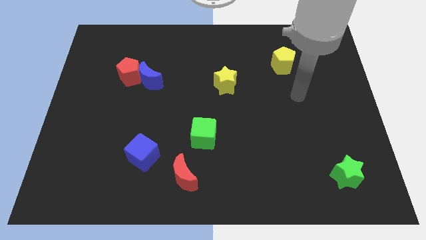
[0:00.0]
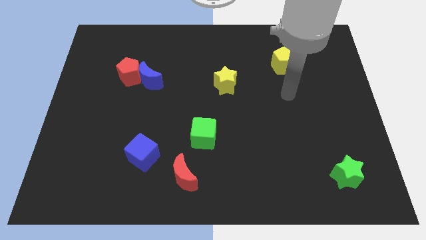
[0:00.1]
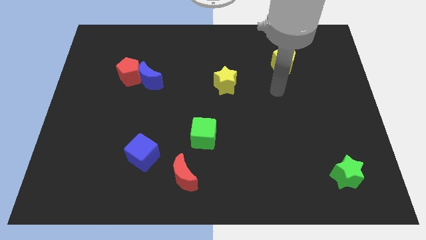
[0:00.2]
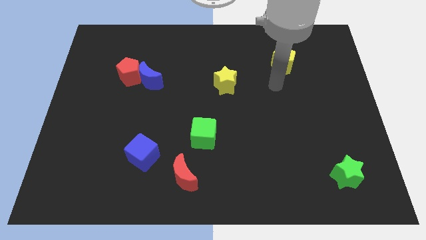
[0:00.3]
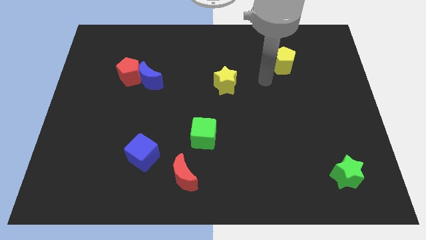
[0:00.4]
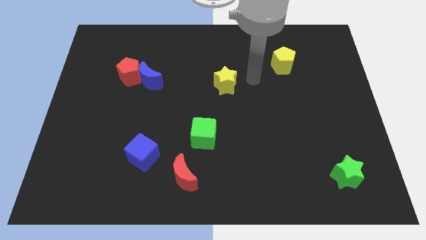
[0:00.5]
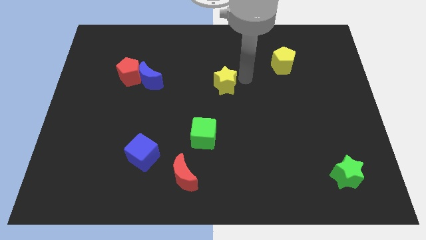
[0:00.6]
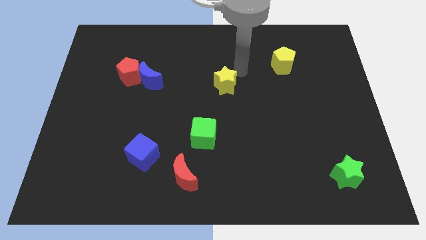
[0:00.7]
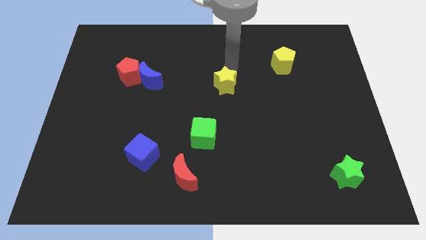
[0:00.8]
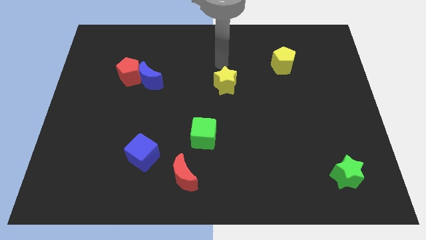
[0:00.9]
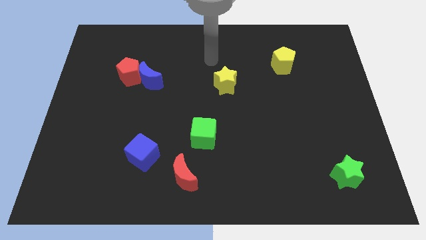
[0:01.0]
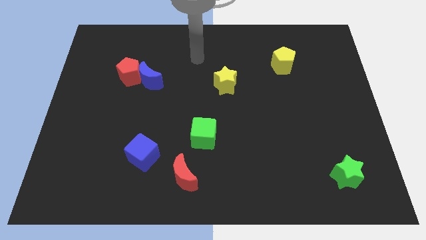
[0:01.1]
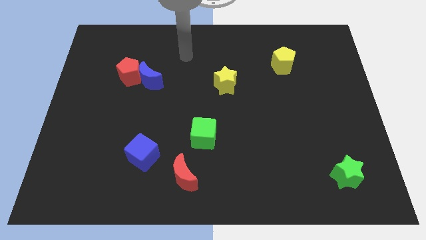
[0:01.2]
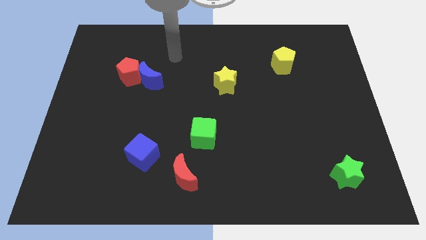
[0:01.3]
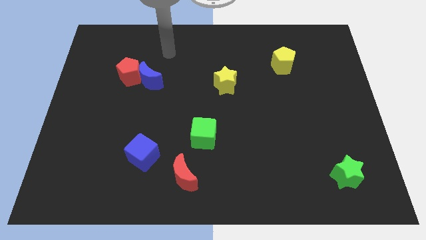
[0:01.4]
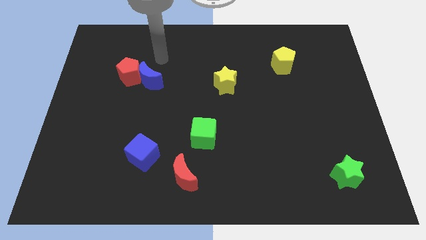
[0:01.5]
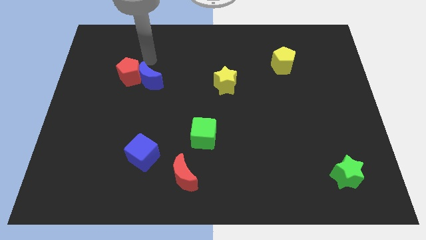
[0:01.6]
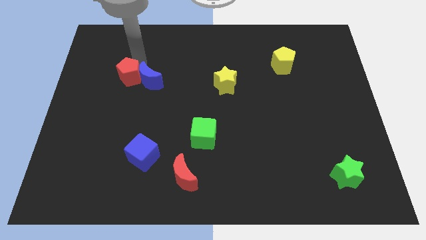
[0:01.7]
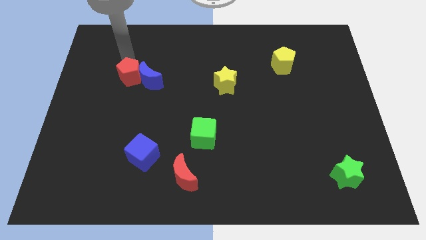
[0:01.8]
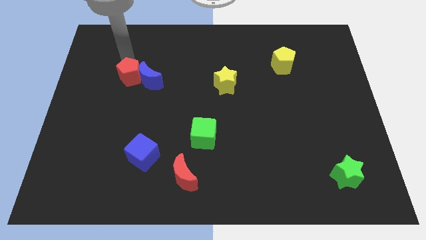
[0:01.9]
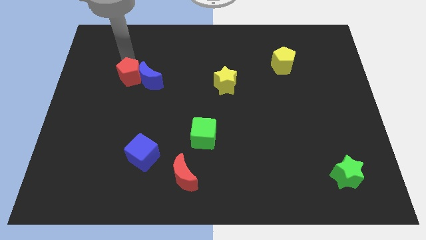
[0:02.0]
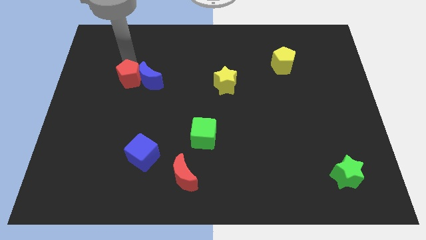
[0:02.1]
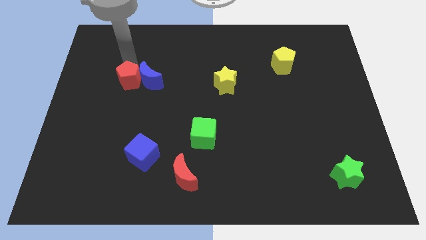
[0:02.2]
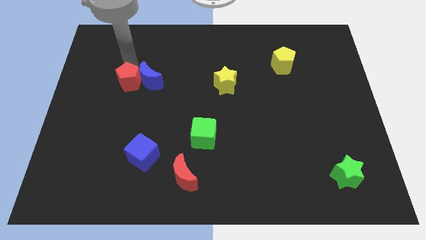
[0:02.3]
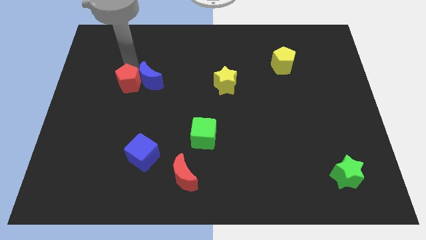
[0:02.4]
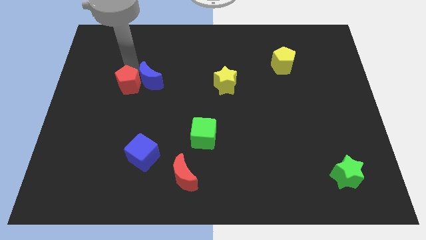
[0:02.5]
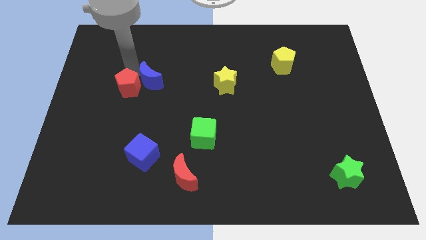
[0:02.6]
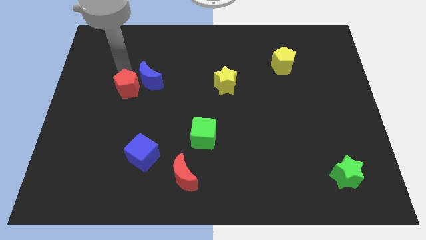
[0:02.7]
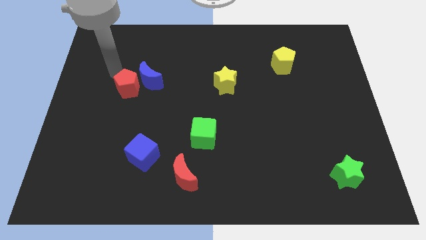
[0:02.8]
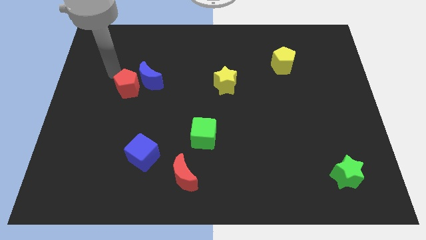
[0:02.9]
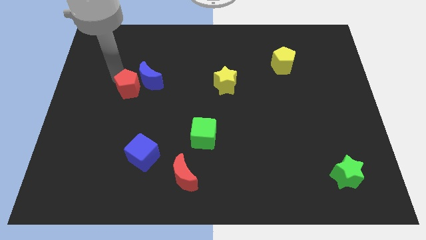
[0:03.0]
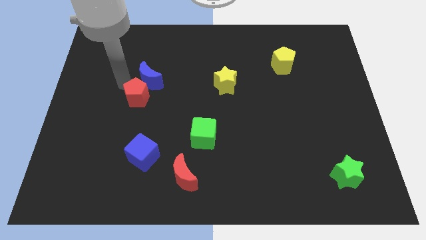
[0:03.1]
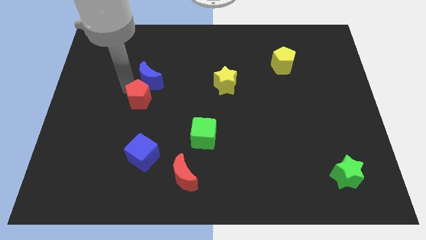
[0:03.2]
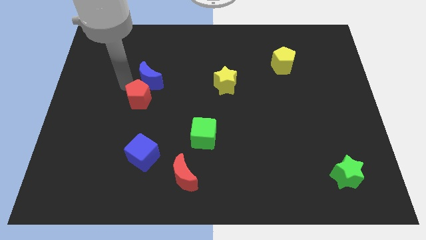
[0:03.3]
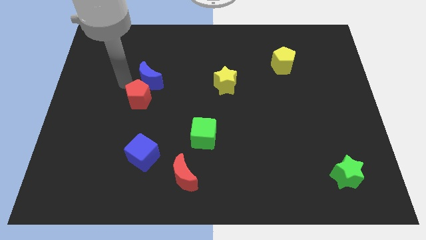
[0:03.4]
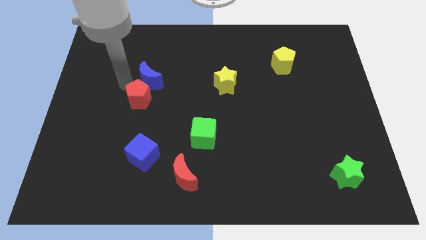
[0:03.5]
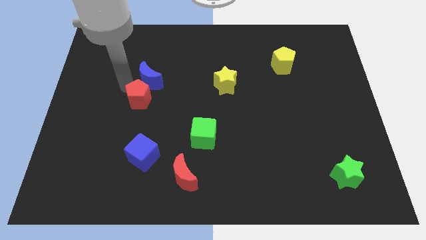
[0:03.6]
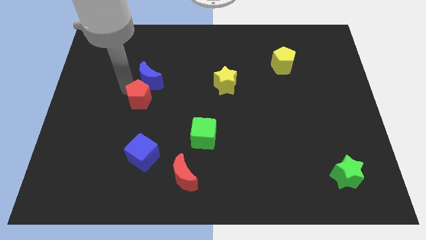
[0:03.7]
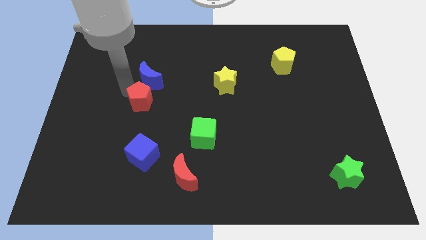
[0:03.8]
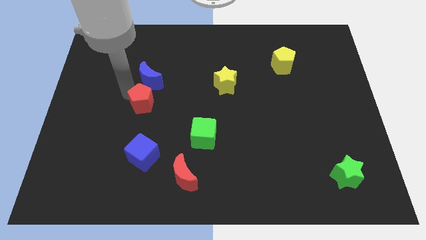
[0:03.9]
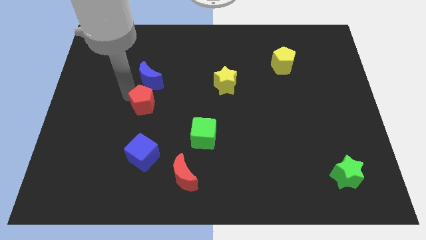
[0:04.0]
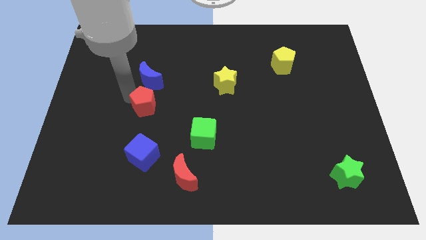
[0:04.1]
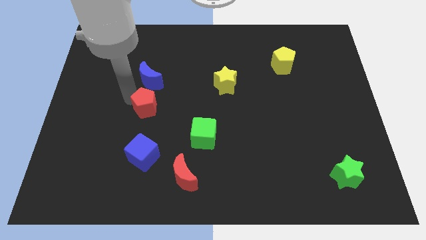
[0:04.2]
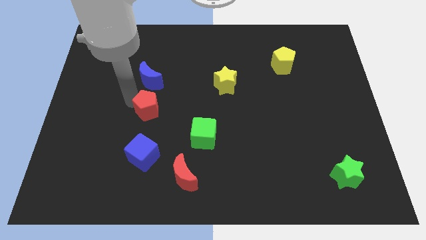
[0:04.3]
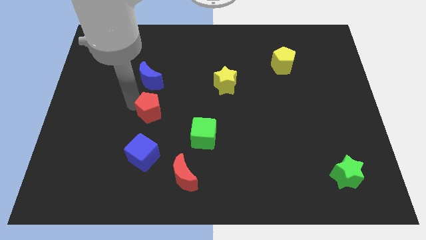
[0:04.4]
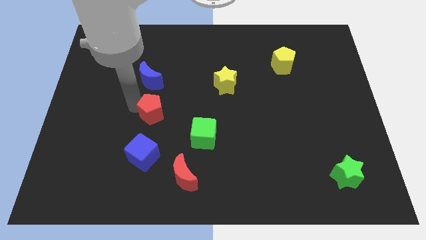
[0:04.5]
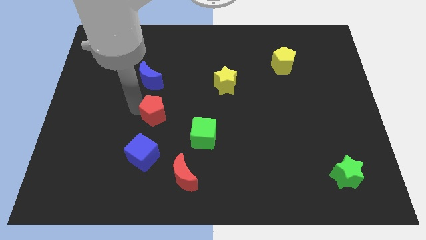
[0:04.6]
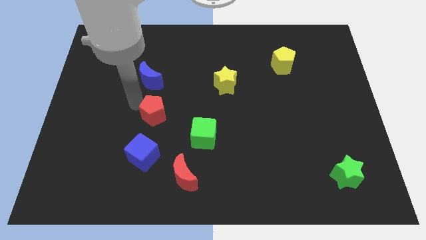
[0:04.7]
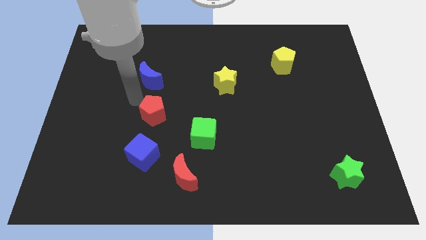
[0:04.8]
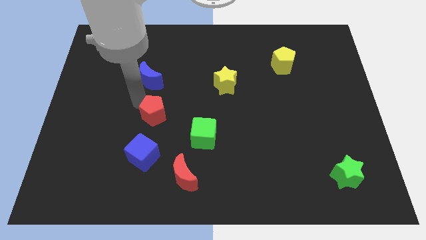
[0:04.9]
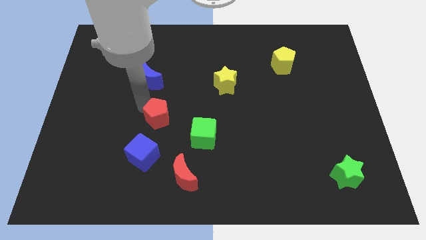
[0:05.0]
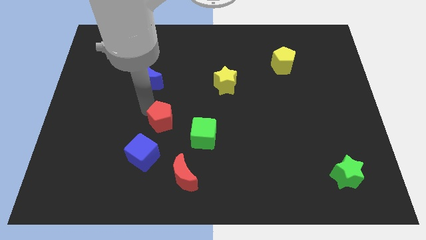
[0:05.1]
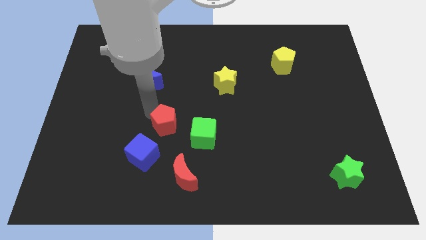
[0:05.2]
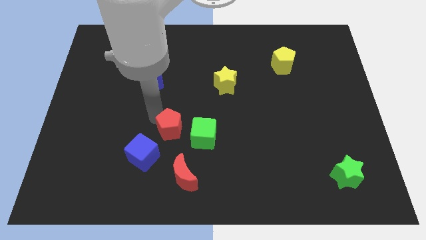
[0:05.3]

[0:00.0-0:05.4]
put the red pentagon to the top side of the red moon

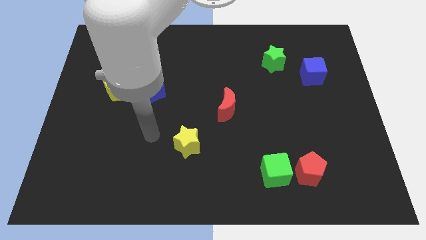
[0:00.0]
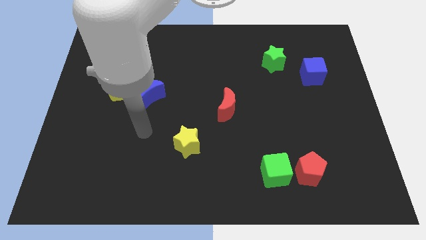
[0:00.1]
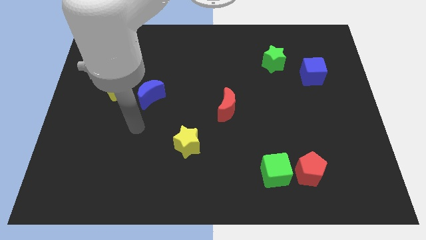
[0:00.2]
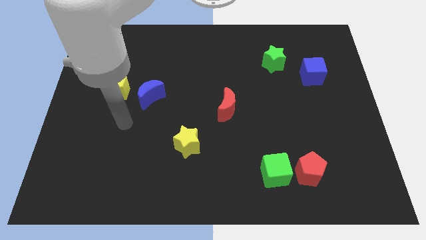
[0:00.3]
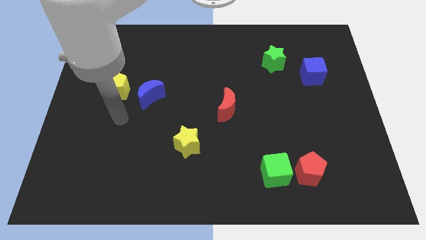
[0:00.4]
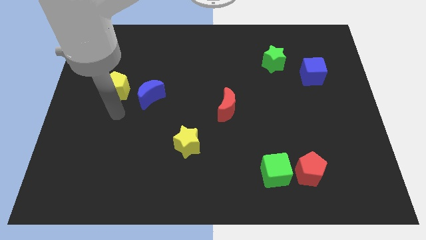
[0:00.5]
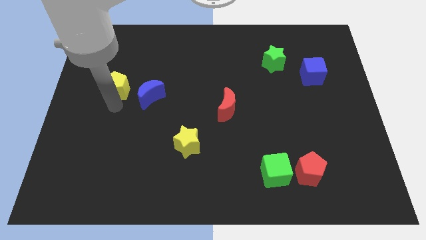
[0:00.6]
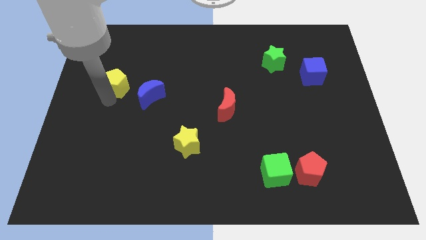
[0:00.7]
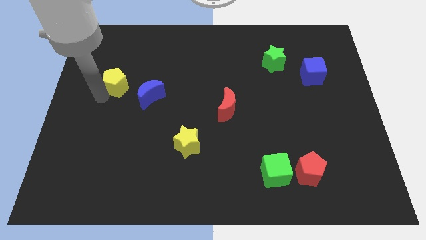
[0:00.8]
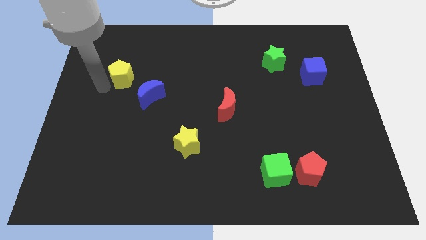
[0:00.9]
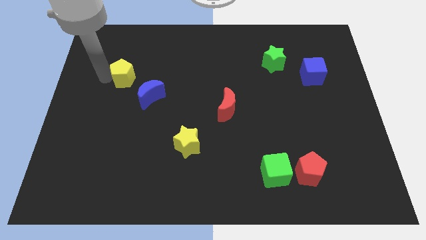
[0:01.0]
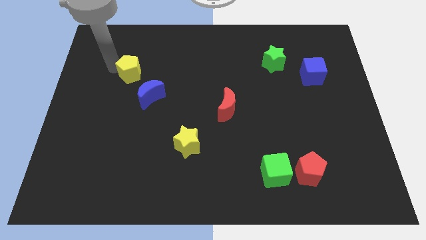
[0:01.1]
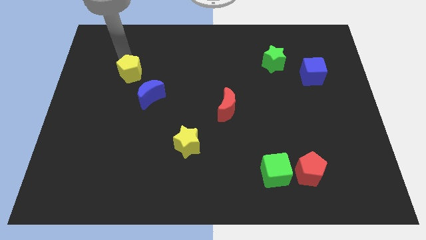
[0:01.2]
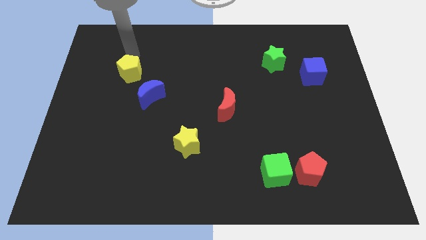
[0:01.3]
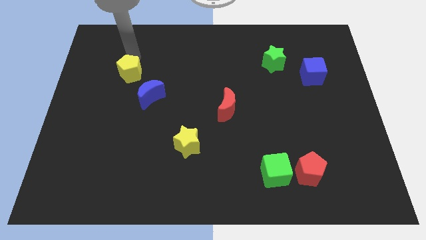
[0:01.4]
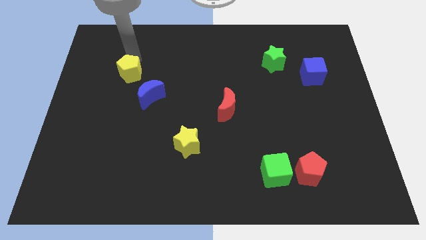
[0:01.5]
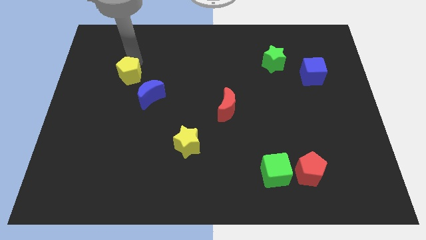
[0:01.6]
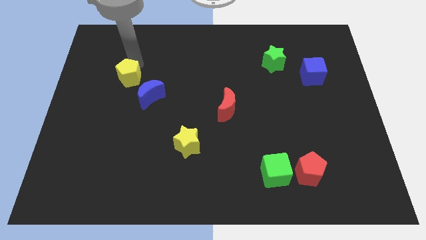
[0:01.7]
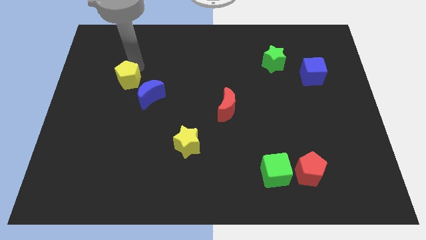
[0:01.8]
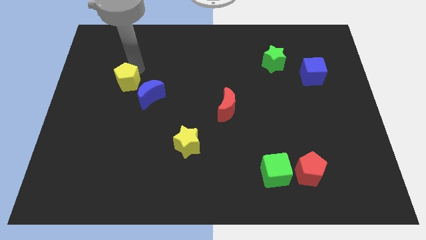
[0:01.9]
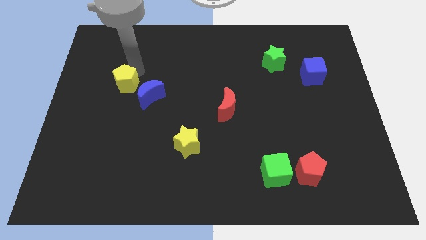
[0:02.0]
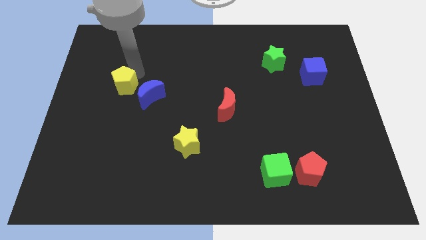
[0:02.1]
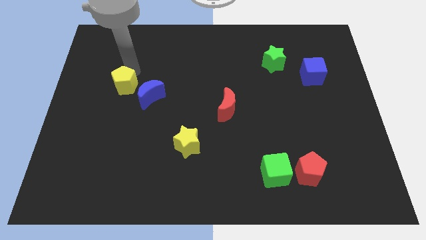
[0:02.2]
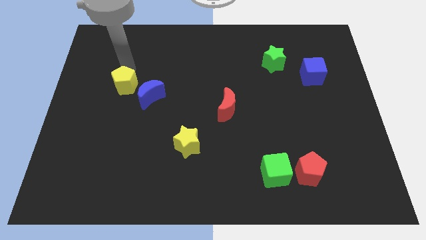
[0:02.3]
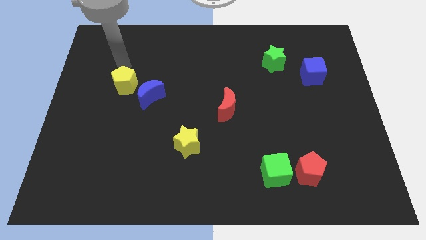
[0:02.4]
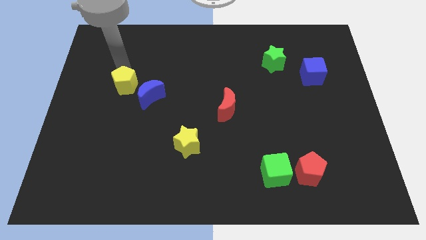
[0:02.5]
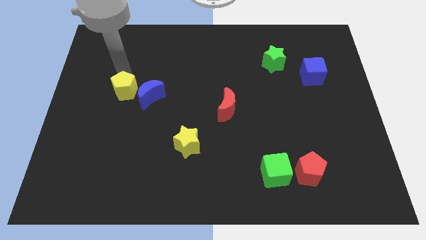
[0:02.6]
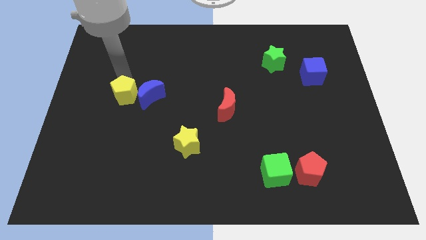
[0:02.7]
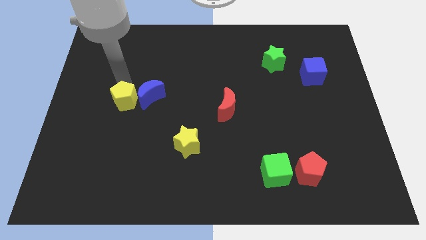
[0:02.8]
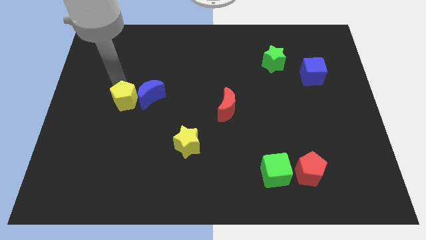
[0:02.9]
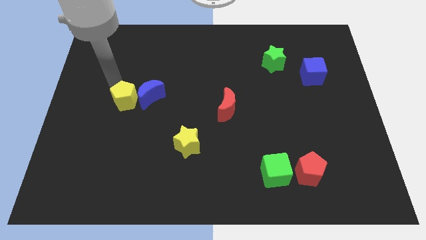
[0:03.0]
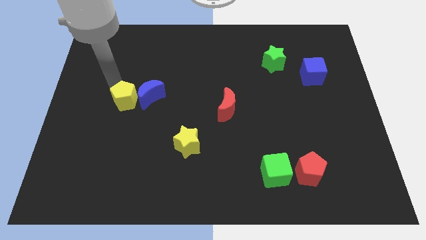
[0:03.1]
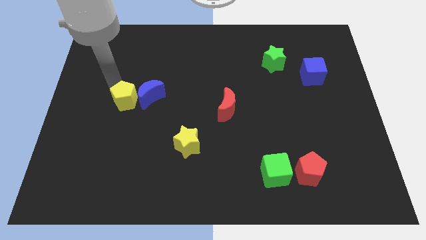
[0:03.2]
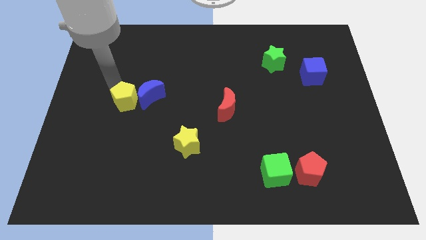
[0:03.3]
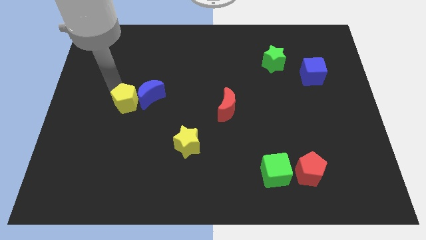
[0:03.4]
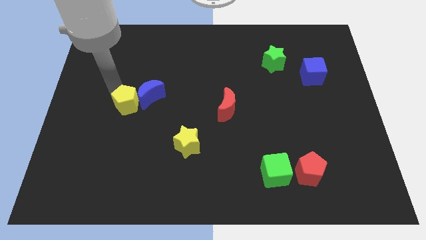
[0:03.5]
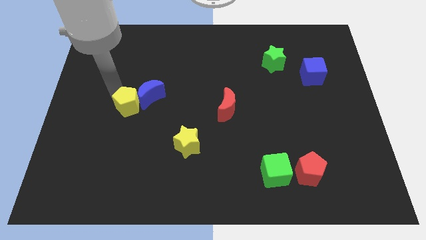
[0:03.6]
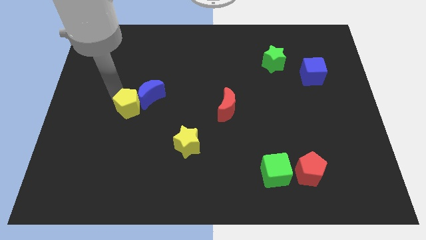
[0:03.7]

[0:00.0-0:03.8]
push the yellow pentagon to the bottom of the blue moon
